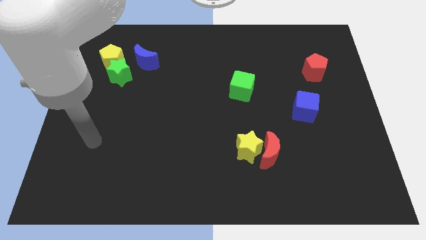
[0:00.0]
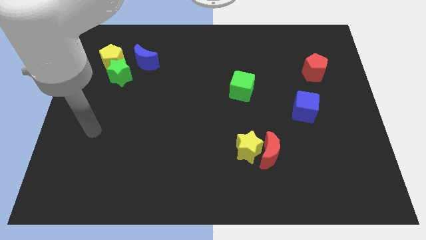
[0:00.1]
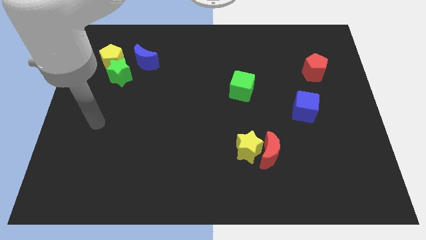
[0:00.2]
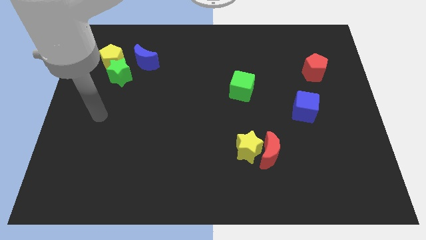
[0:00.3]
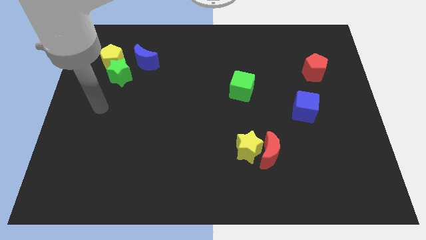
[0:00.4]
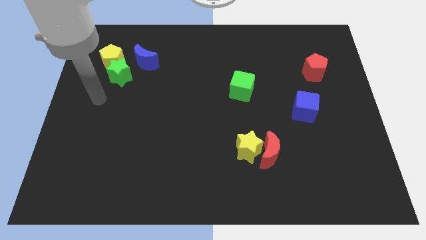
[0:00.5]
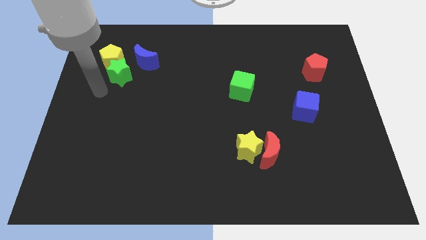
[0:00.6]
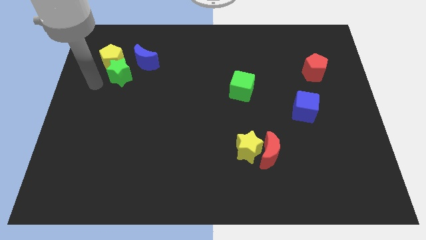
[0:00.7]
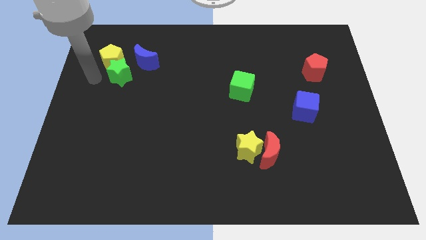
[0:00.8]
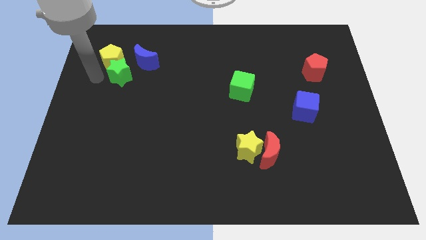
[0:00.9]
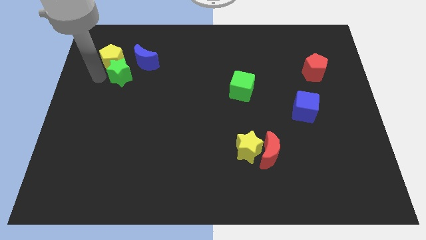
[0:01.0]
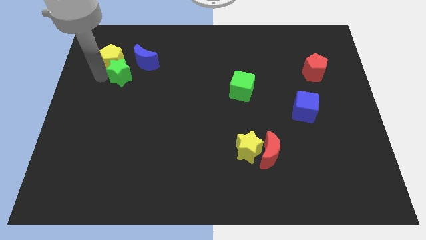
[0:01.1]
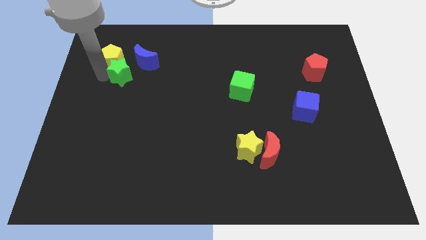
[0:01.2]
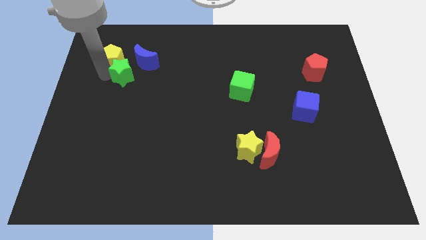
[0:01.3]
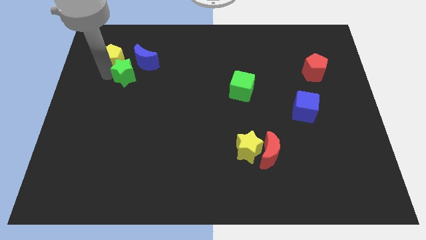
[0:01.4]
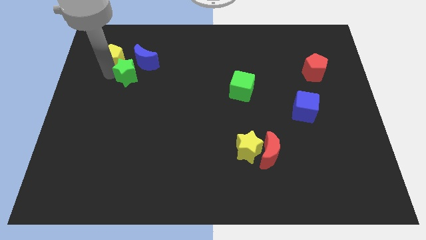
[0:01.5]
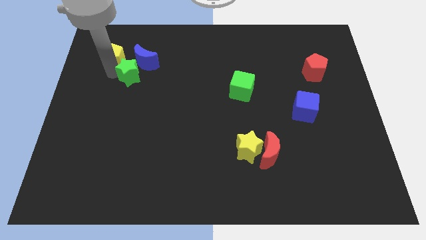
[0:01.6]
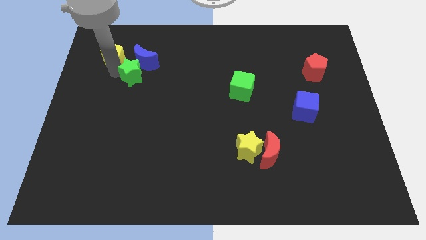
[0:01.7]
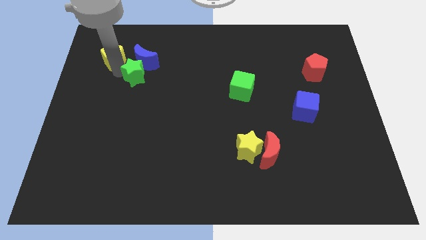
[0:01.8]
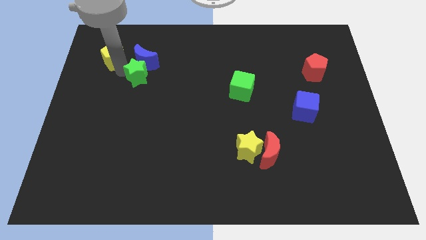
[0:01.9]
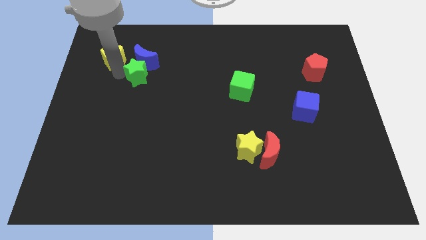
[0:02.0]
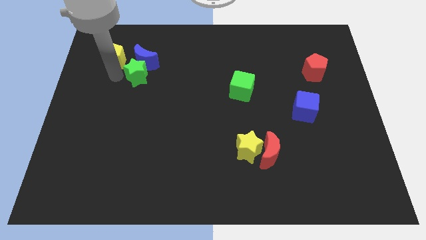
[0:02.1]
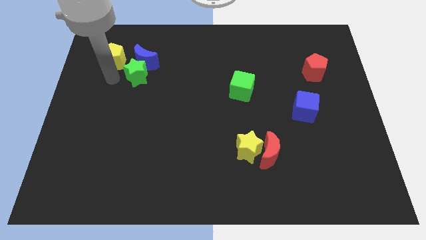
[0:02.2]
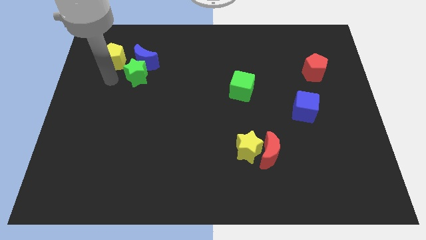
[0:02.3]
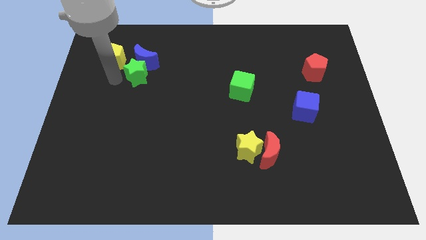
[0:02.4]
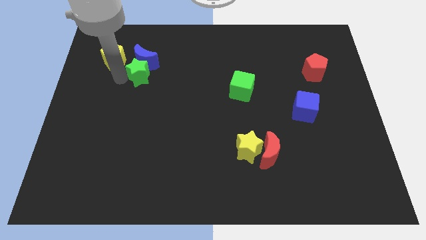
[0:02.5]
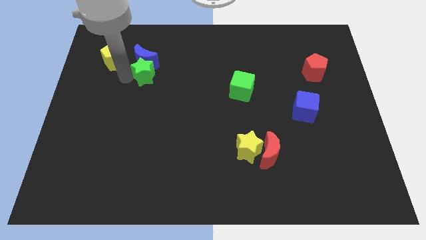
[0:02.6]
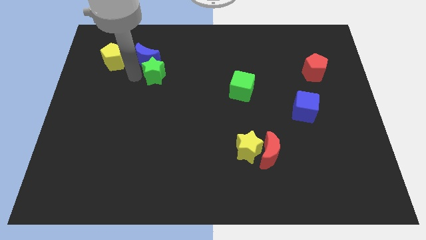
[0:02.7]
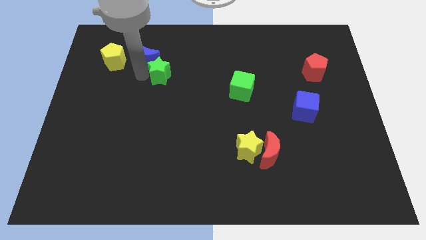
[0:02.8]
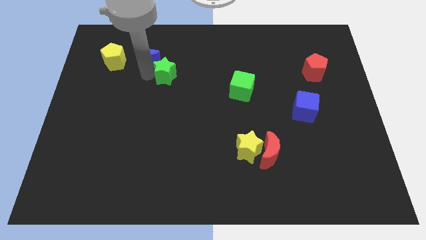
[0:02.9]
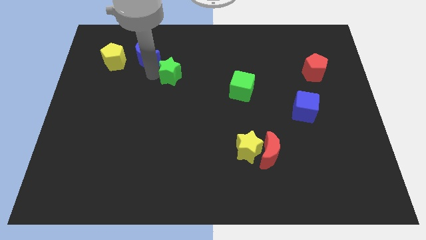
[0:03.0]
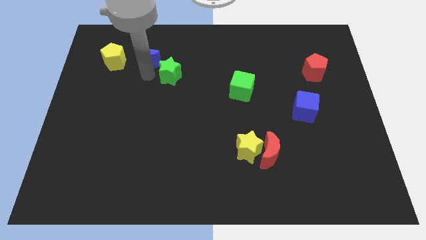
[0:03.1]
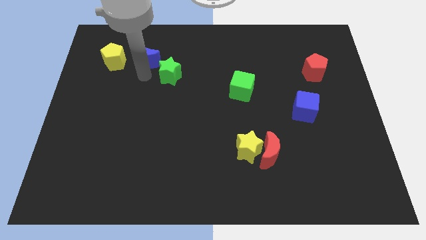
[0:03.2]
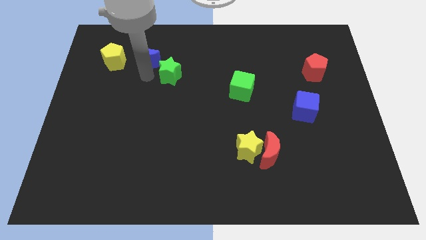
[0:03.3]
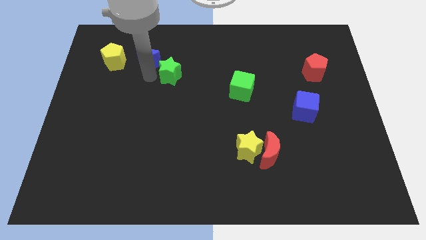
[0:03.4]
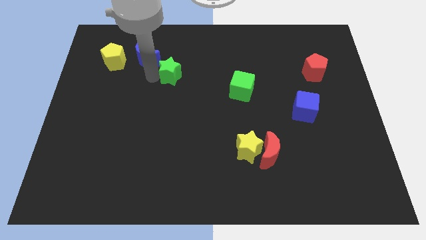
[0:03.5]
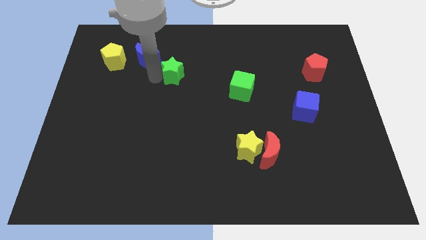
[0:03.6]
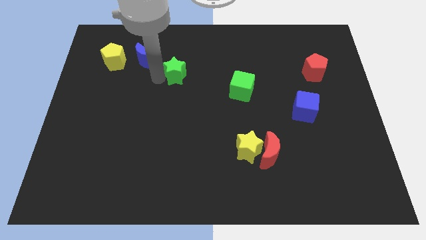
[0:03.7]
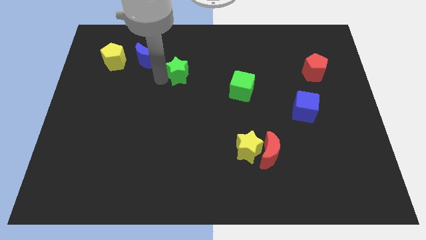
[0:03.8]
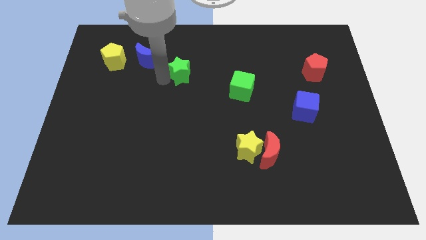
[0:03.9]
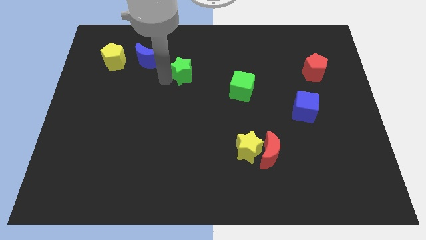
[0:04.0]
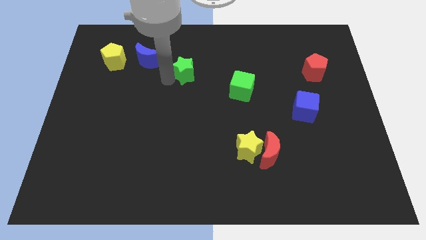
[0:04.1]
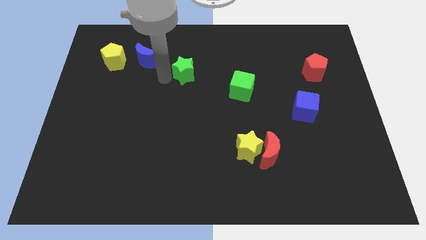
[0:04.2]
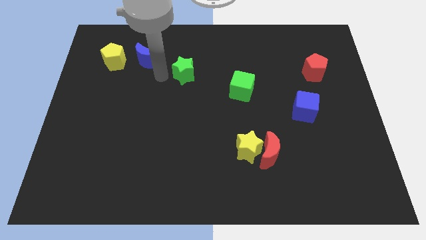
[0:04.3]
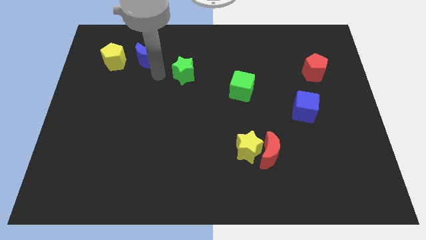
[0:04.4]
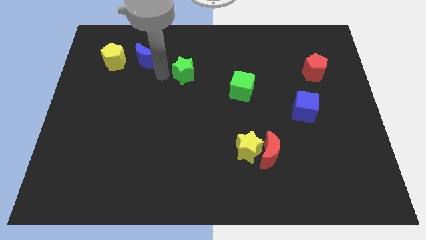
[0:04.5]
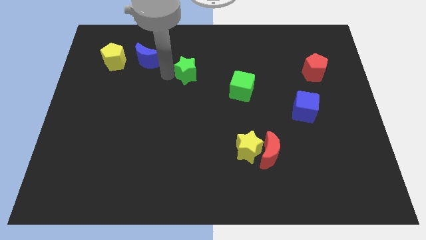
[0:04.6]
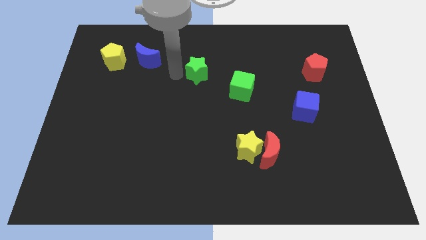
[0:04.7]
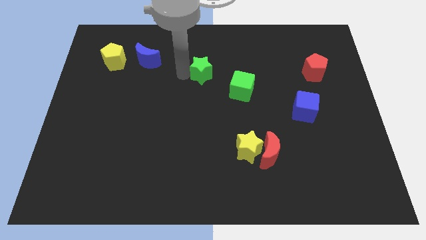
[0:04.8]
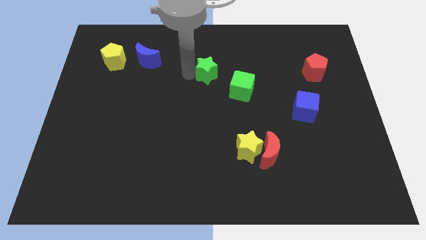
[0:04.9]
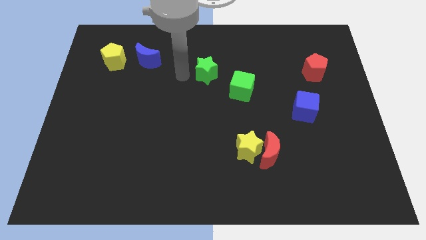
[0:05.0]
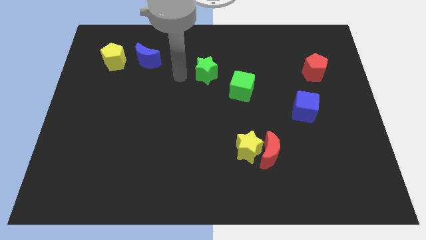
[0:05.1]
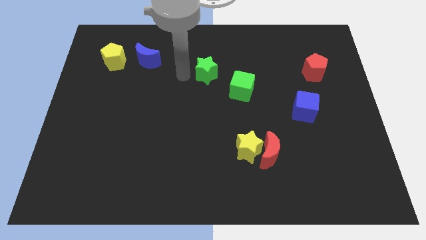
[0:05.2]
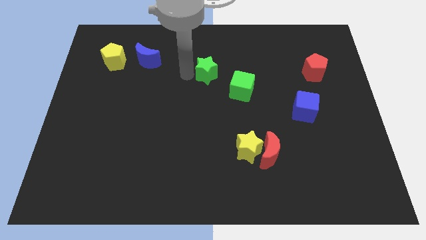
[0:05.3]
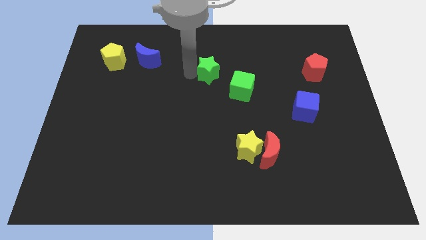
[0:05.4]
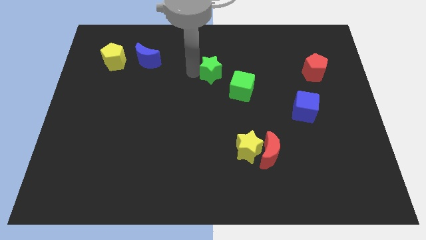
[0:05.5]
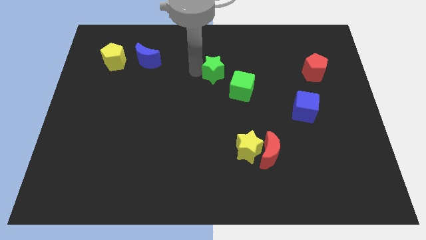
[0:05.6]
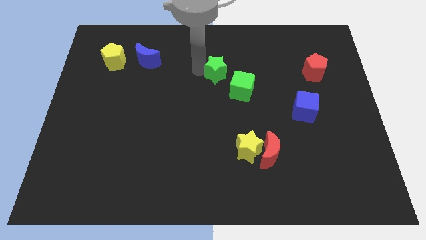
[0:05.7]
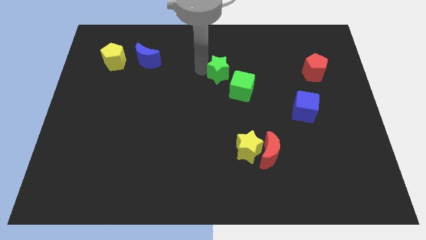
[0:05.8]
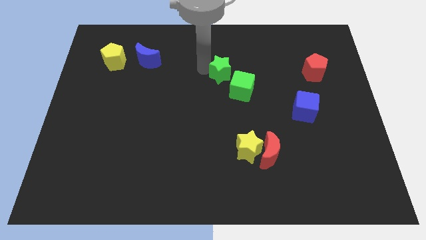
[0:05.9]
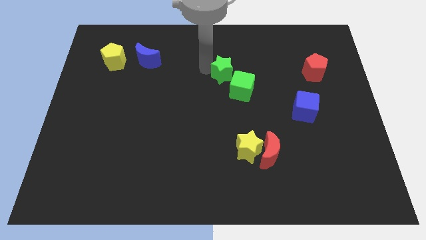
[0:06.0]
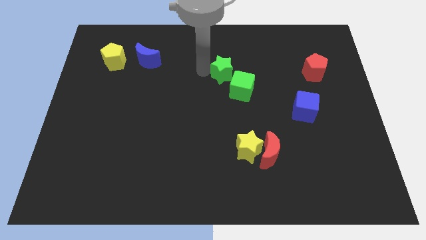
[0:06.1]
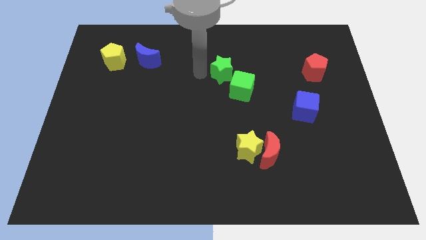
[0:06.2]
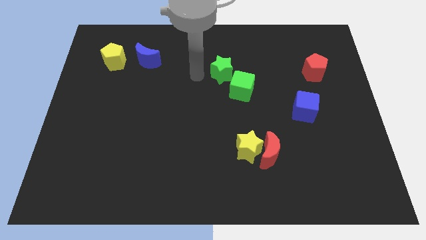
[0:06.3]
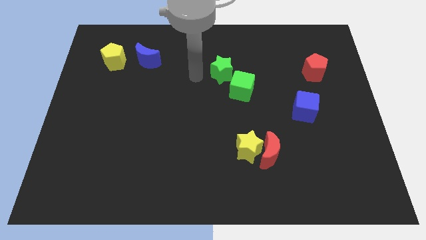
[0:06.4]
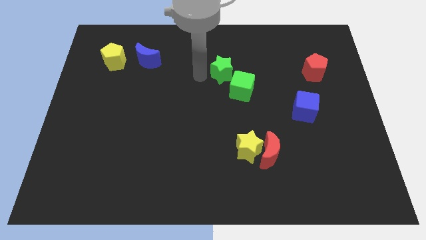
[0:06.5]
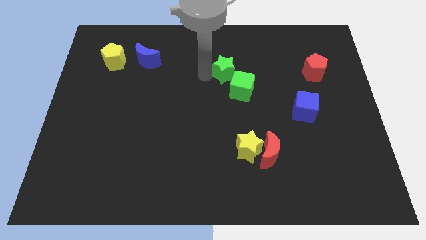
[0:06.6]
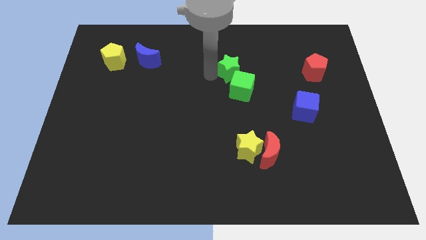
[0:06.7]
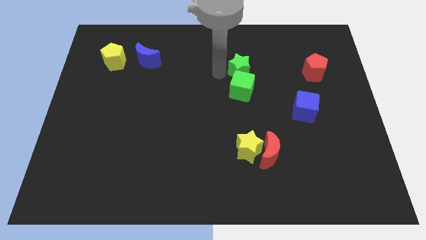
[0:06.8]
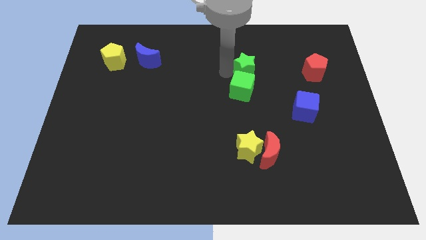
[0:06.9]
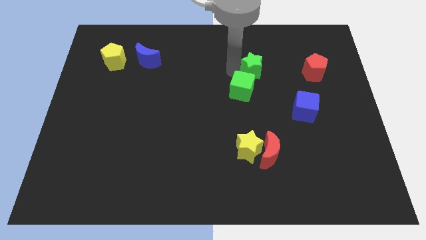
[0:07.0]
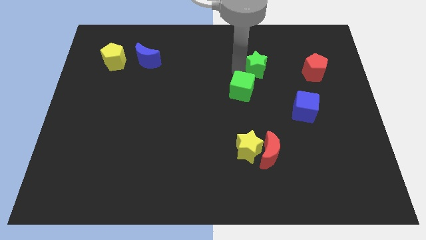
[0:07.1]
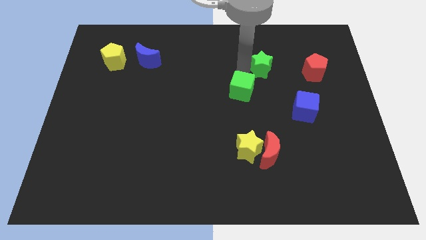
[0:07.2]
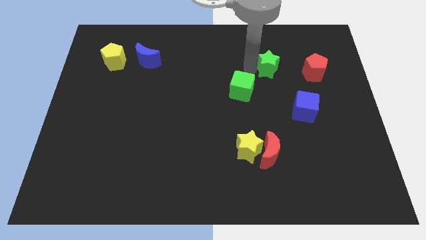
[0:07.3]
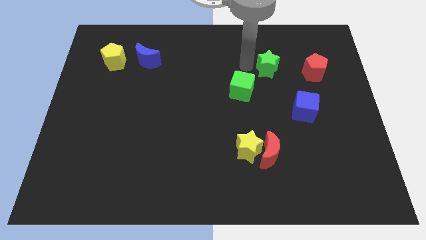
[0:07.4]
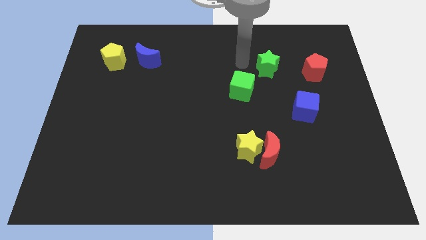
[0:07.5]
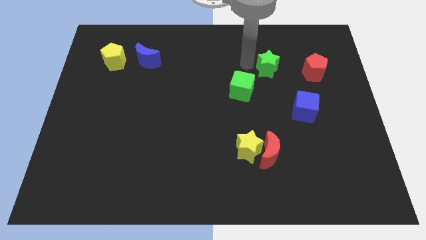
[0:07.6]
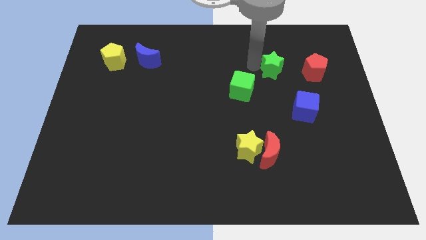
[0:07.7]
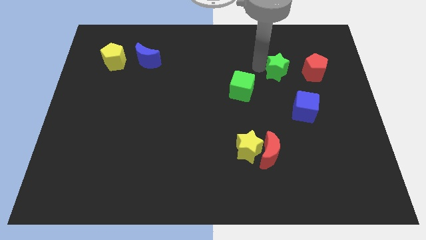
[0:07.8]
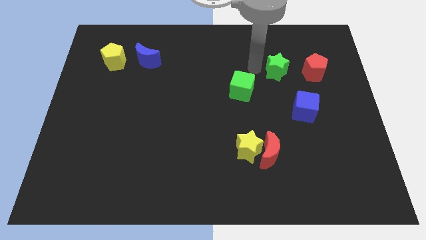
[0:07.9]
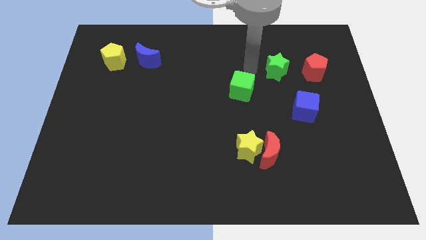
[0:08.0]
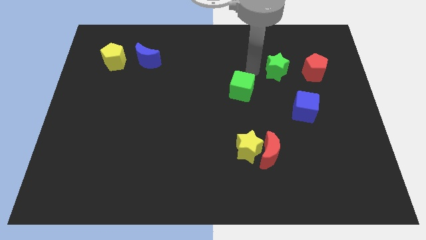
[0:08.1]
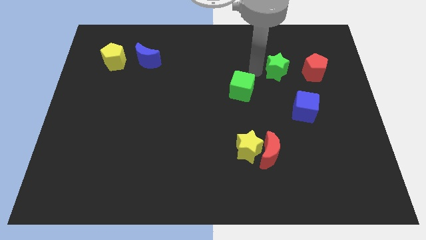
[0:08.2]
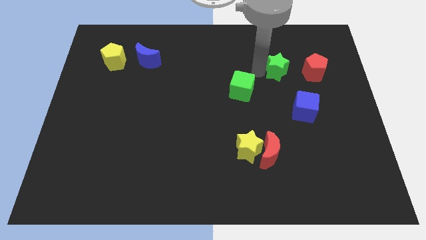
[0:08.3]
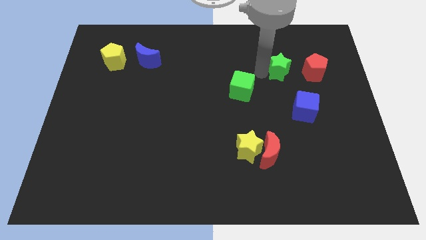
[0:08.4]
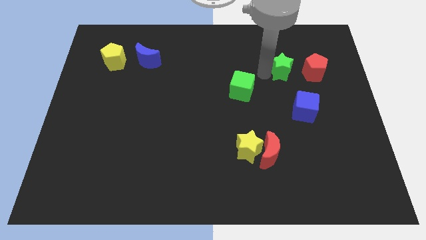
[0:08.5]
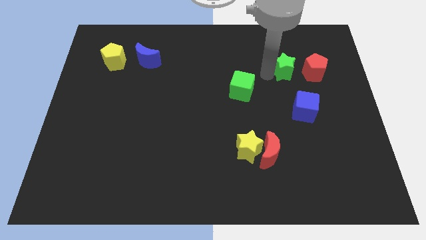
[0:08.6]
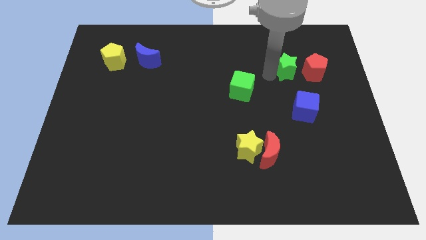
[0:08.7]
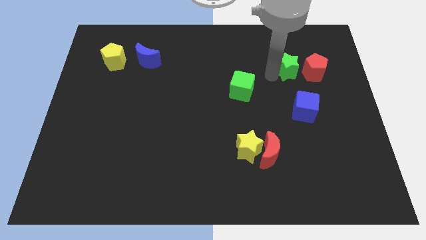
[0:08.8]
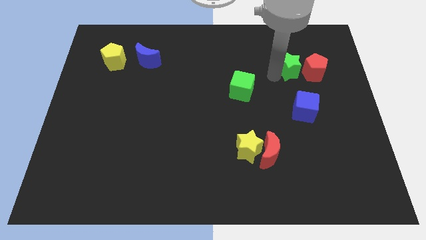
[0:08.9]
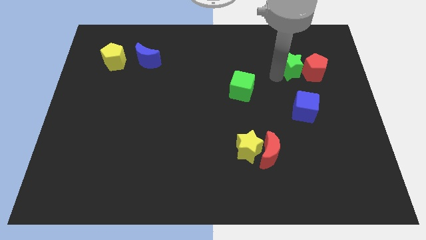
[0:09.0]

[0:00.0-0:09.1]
slide the green star towards the red pentagon
